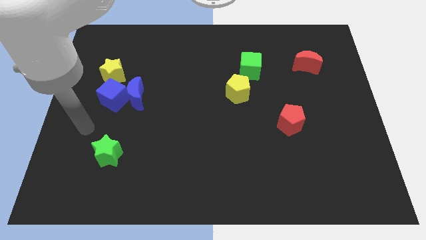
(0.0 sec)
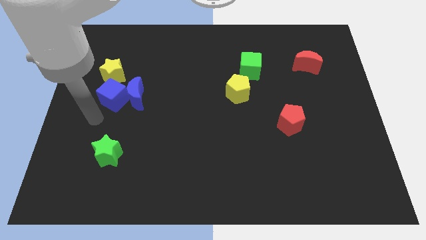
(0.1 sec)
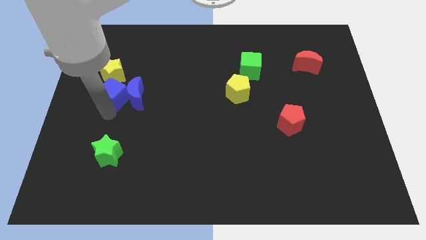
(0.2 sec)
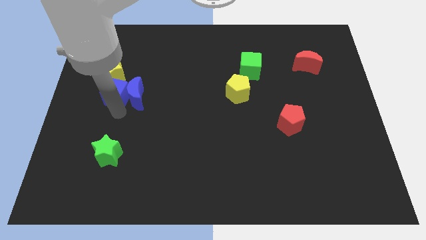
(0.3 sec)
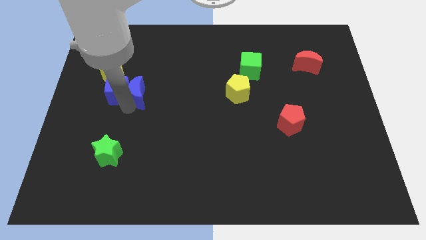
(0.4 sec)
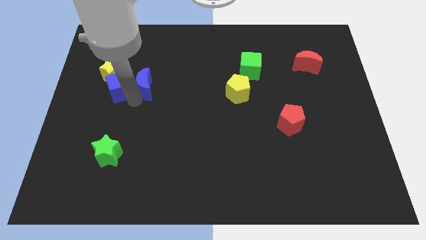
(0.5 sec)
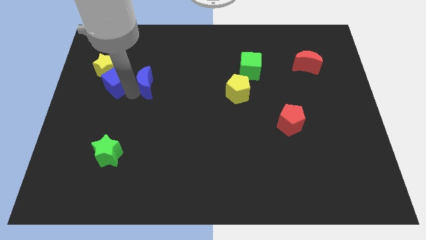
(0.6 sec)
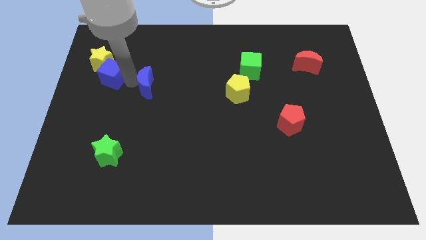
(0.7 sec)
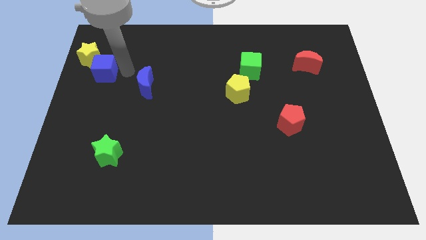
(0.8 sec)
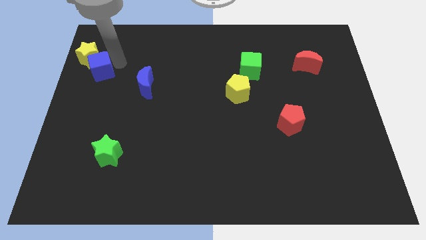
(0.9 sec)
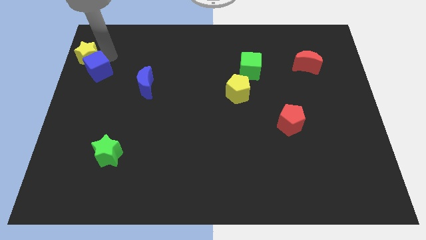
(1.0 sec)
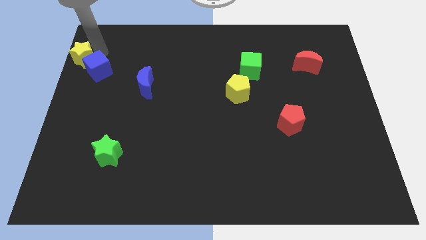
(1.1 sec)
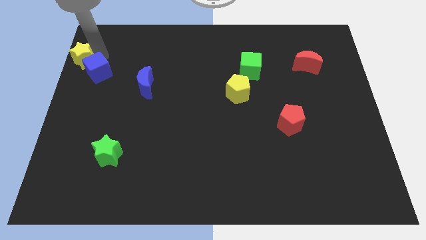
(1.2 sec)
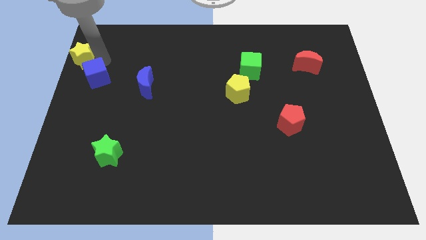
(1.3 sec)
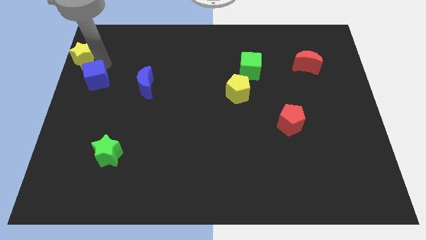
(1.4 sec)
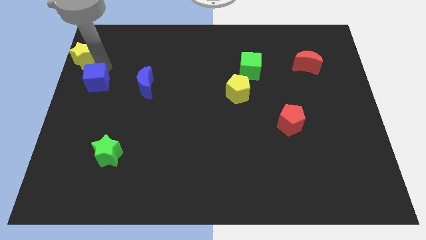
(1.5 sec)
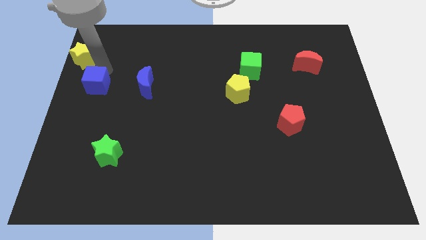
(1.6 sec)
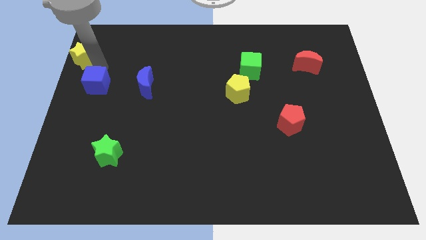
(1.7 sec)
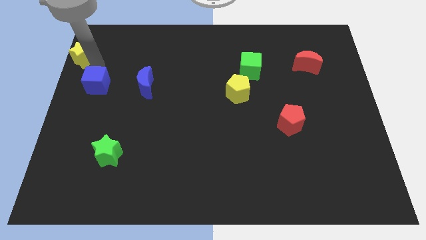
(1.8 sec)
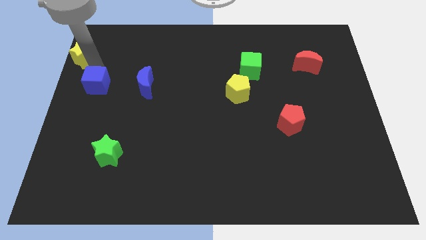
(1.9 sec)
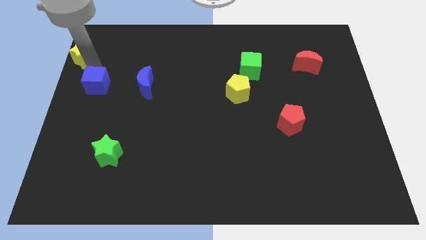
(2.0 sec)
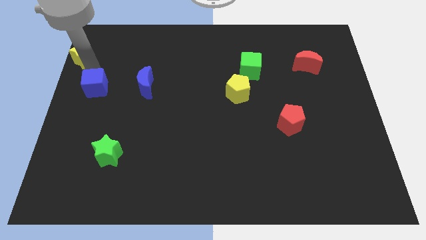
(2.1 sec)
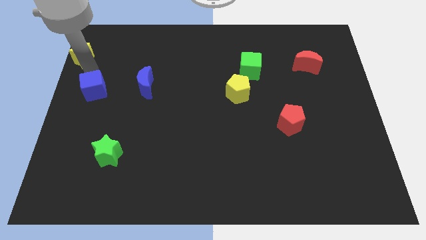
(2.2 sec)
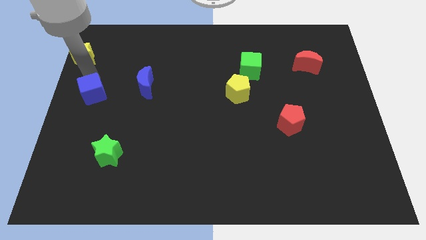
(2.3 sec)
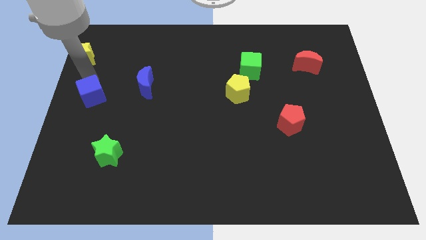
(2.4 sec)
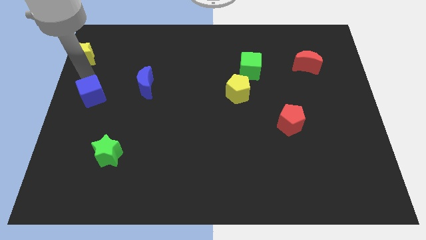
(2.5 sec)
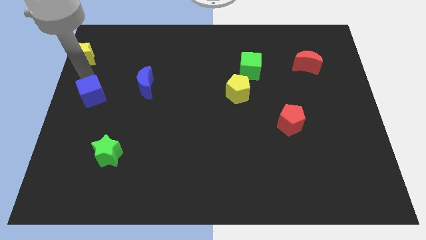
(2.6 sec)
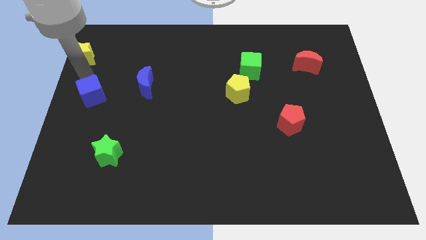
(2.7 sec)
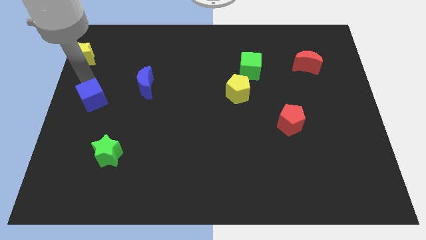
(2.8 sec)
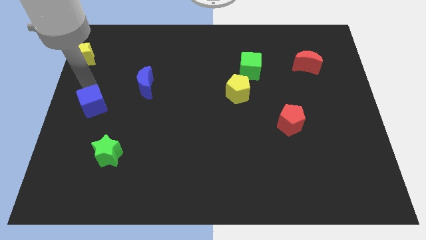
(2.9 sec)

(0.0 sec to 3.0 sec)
separate the blue cube from the blue moon and yellow star

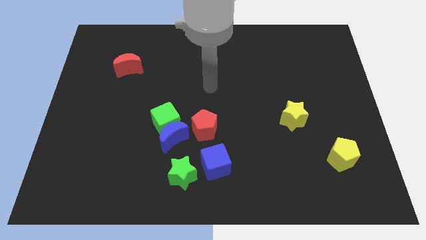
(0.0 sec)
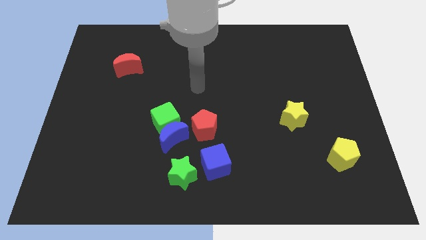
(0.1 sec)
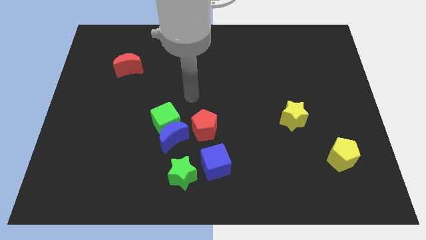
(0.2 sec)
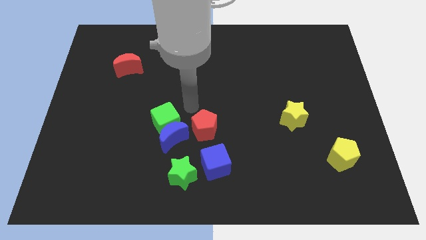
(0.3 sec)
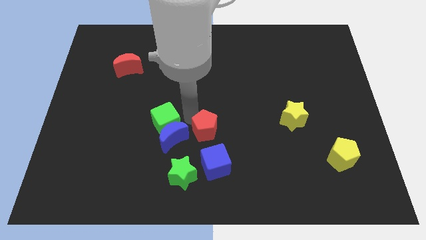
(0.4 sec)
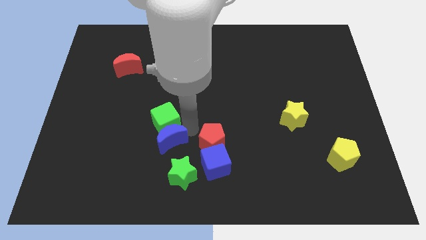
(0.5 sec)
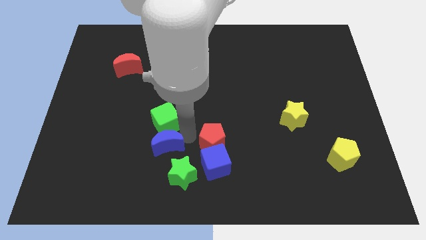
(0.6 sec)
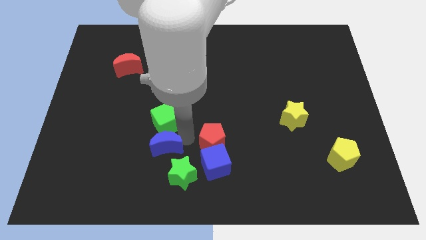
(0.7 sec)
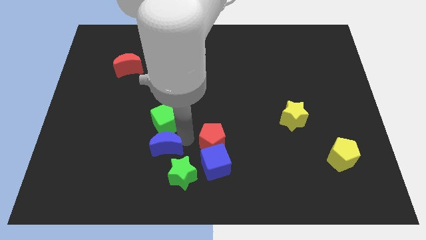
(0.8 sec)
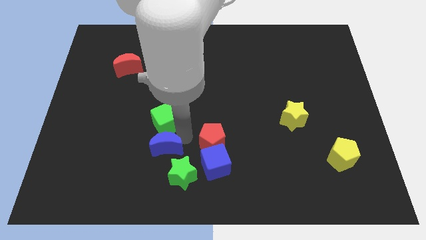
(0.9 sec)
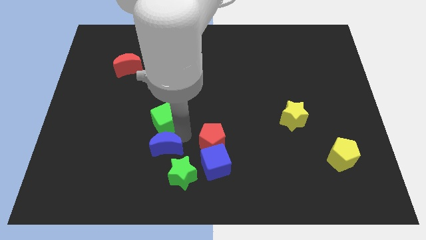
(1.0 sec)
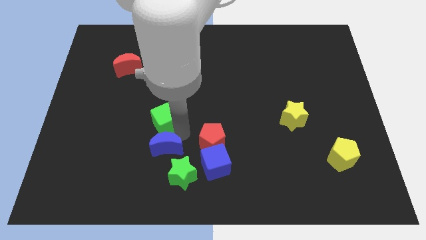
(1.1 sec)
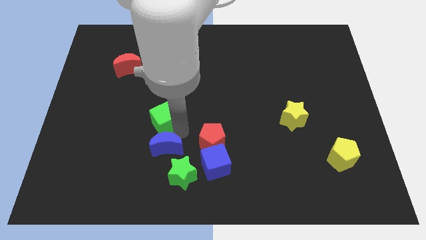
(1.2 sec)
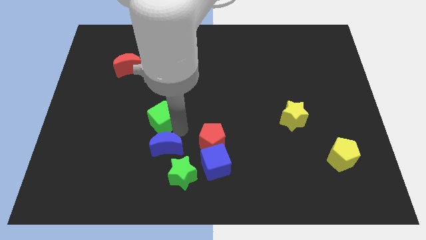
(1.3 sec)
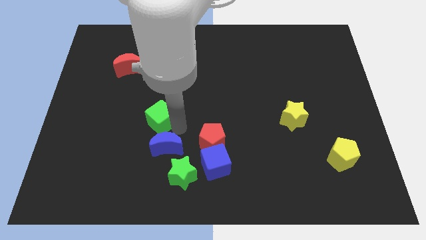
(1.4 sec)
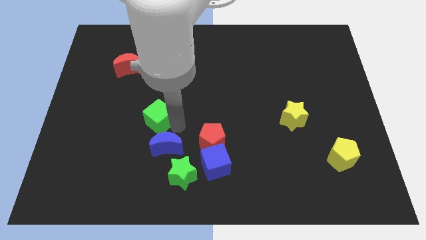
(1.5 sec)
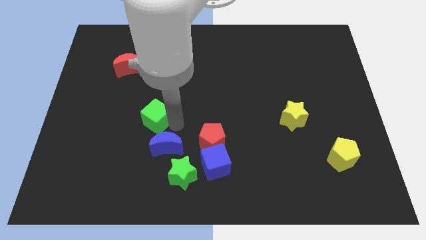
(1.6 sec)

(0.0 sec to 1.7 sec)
separate the green cube from the blue moon and red pentagon

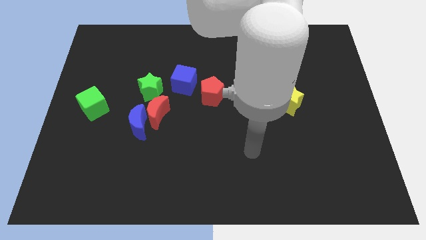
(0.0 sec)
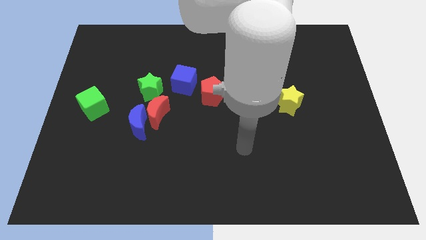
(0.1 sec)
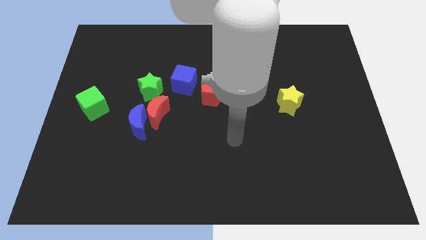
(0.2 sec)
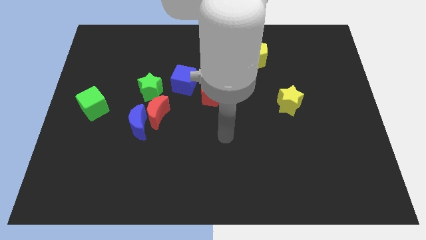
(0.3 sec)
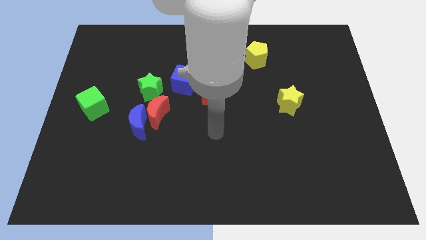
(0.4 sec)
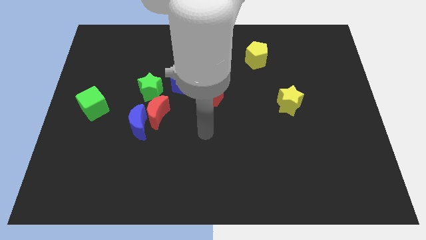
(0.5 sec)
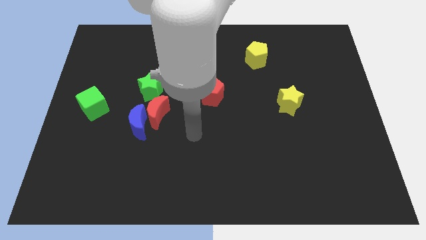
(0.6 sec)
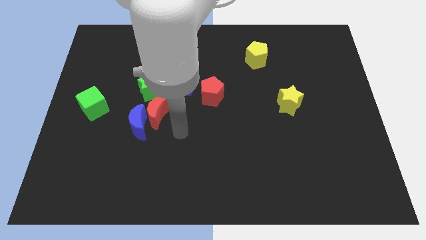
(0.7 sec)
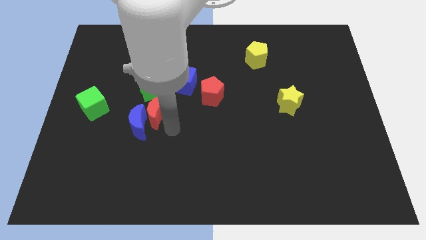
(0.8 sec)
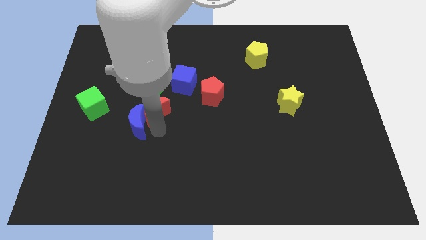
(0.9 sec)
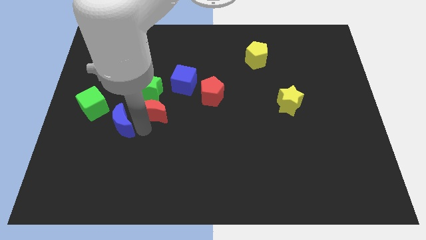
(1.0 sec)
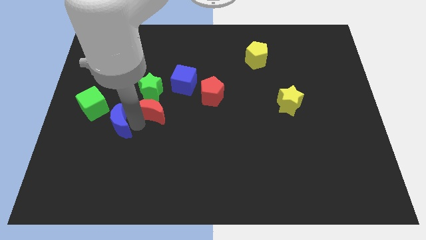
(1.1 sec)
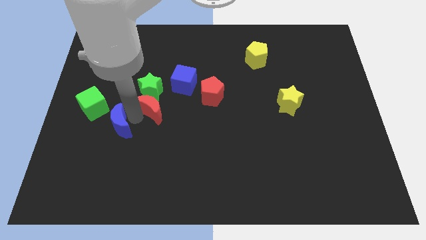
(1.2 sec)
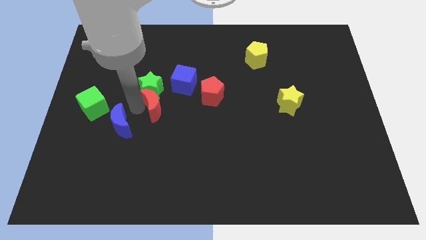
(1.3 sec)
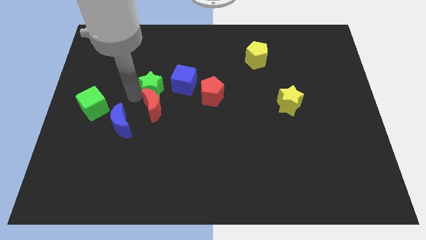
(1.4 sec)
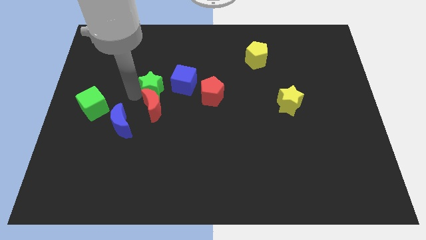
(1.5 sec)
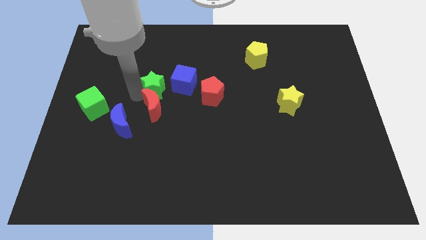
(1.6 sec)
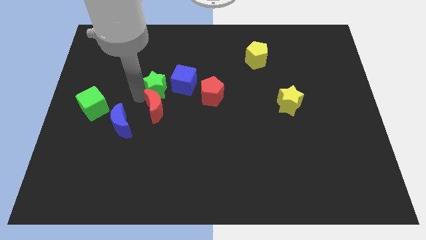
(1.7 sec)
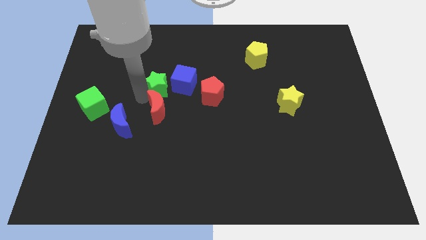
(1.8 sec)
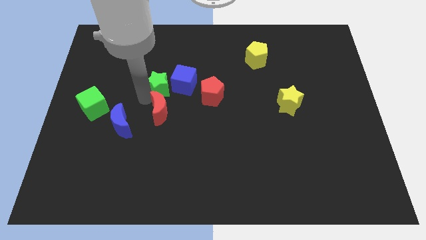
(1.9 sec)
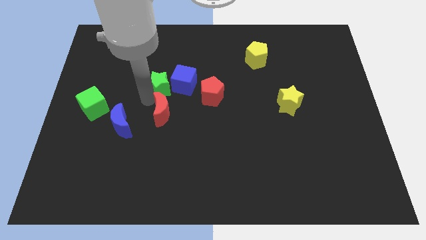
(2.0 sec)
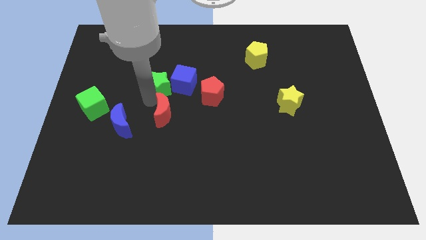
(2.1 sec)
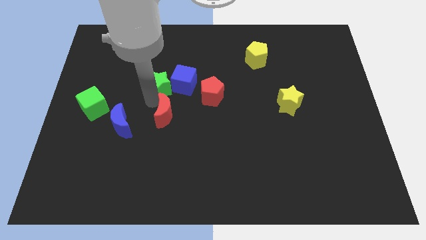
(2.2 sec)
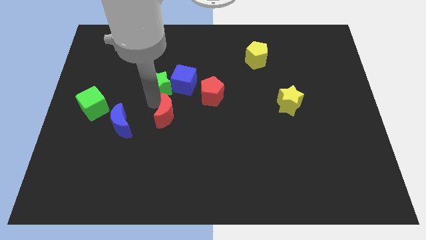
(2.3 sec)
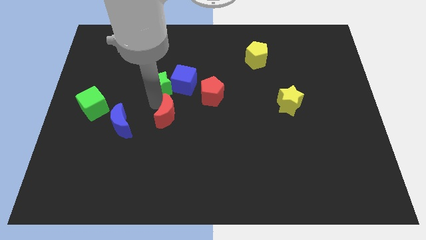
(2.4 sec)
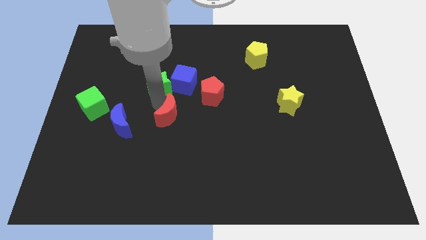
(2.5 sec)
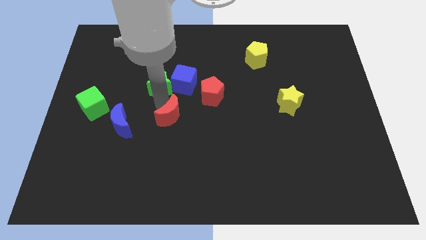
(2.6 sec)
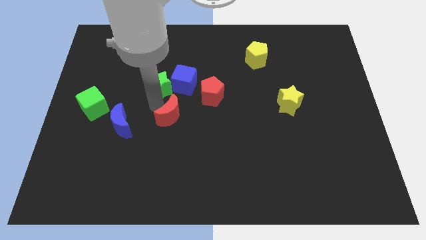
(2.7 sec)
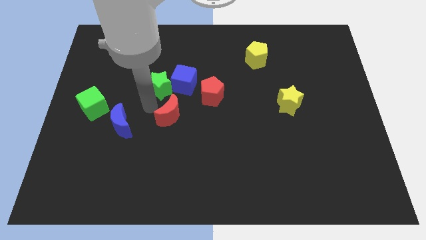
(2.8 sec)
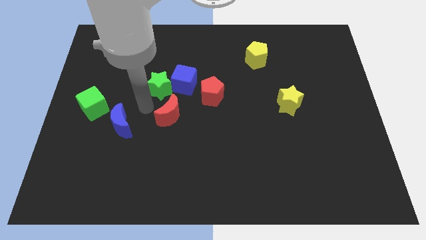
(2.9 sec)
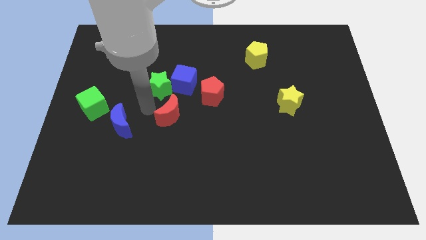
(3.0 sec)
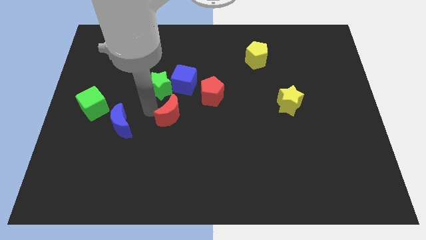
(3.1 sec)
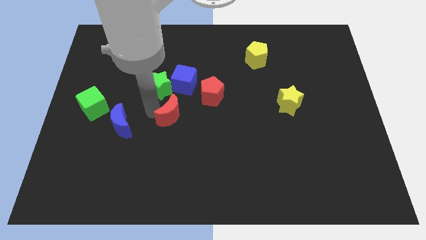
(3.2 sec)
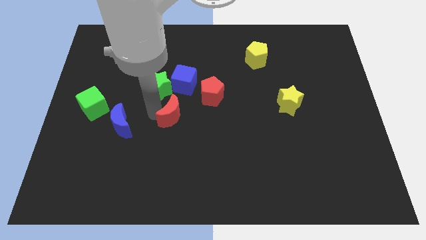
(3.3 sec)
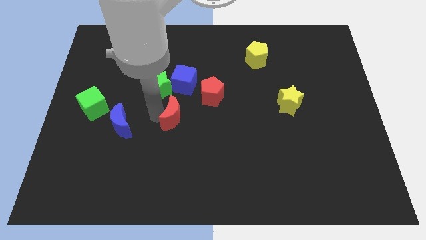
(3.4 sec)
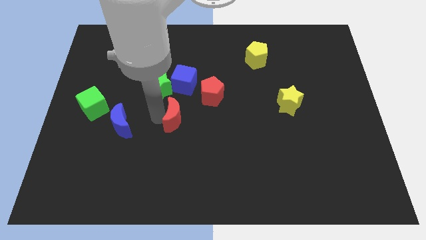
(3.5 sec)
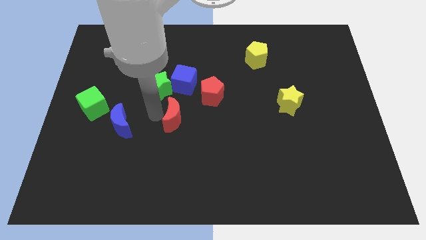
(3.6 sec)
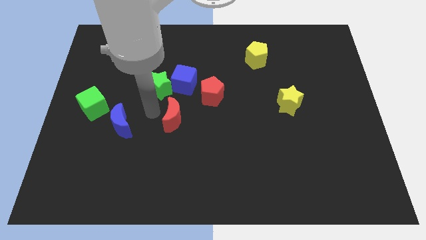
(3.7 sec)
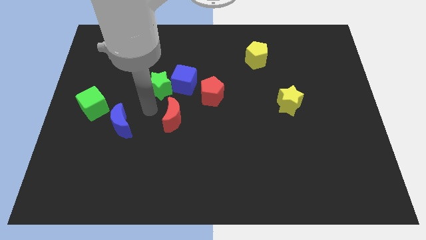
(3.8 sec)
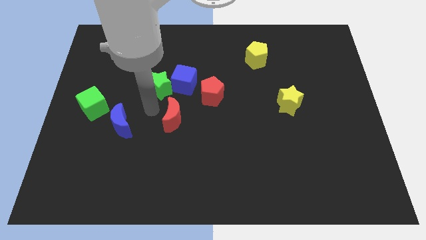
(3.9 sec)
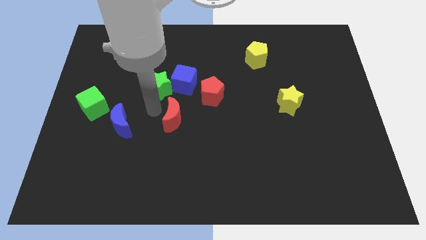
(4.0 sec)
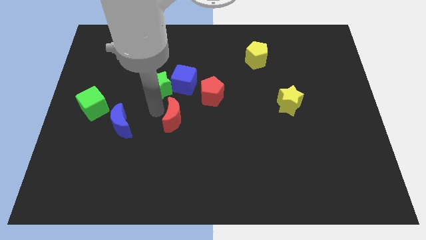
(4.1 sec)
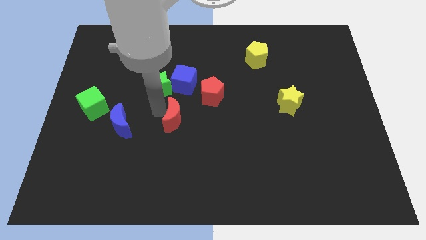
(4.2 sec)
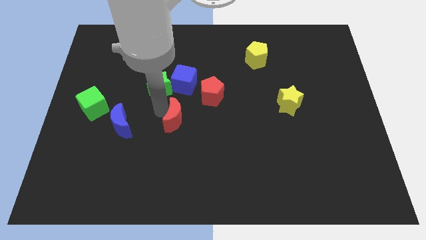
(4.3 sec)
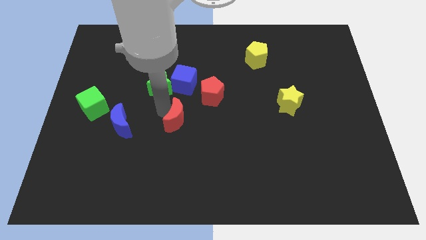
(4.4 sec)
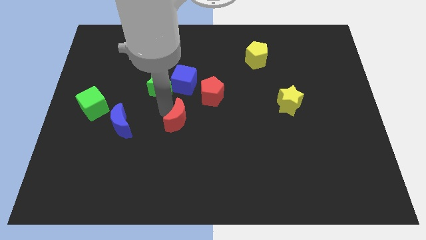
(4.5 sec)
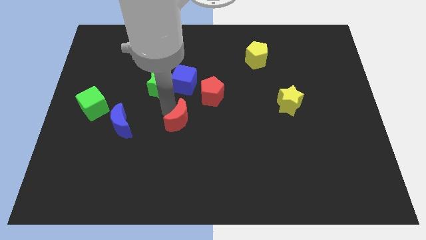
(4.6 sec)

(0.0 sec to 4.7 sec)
separate the red moon from the blue moon and green star
